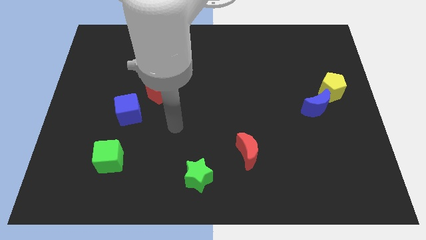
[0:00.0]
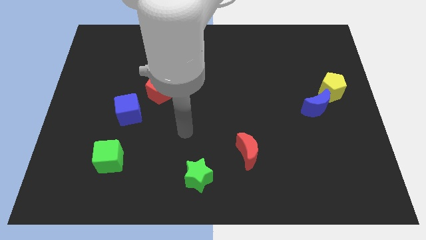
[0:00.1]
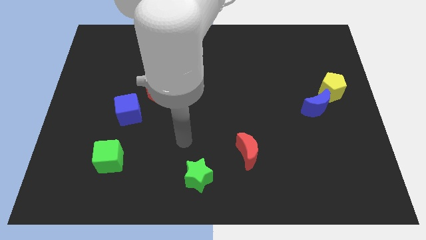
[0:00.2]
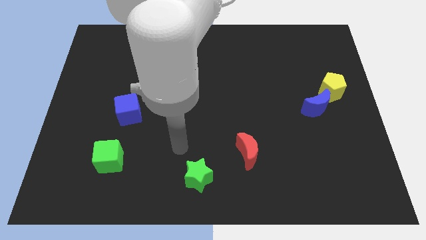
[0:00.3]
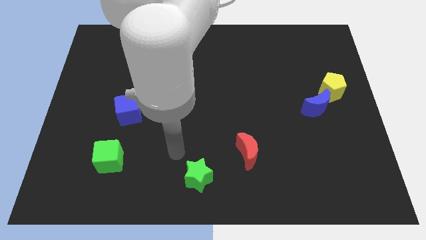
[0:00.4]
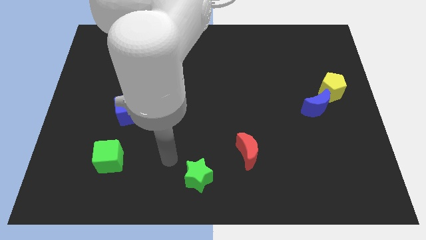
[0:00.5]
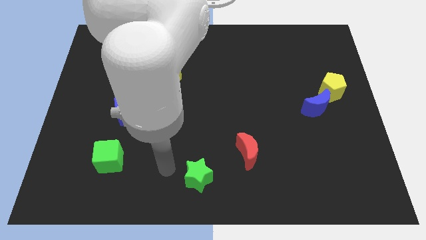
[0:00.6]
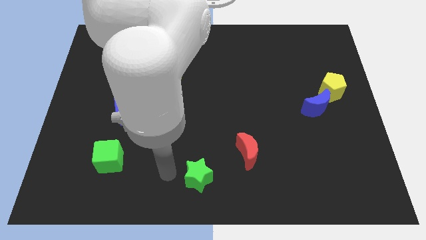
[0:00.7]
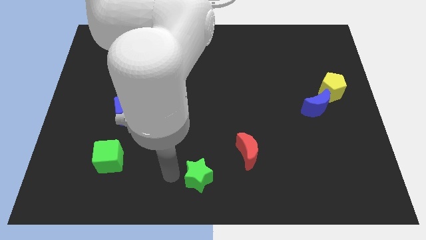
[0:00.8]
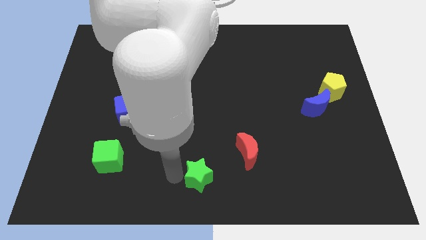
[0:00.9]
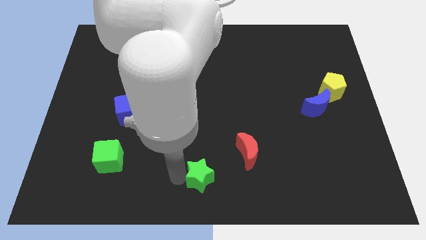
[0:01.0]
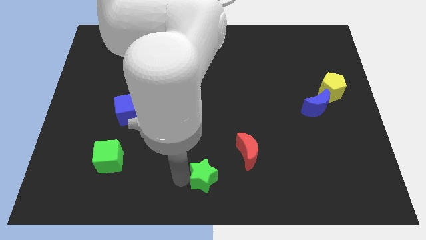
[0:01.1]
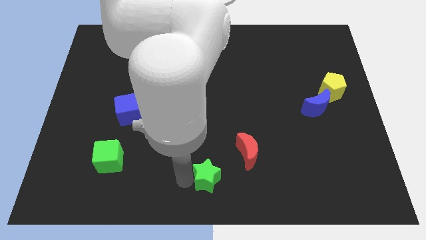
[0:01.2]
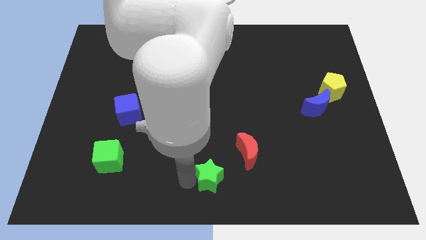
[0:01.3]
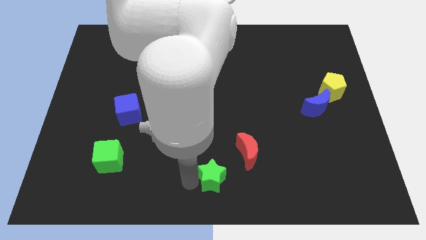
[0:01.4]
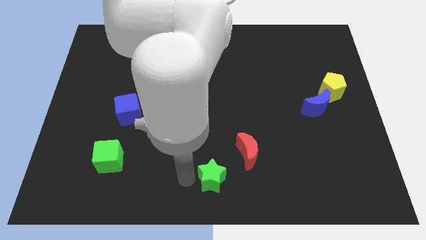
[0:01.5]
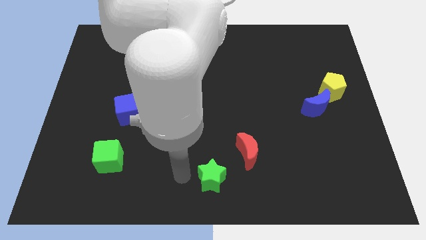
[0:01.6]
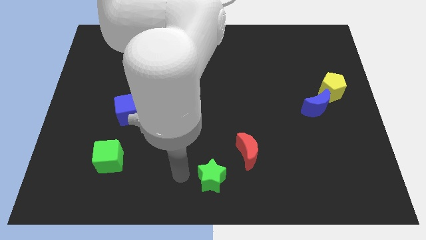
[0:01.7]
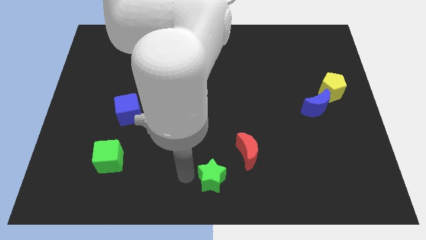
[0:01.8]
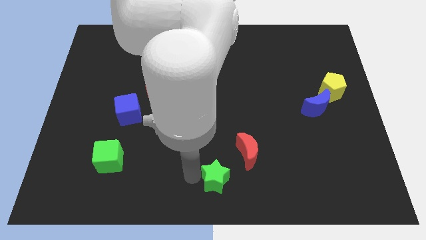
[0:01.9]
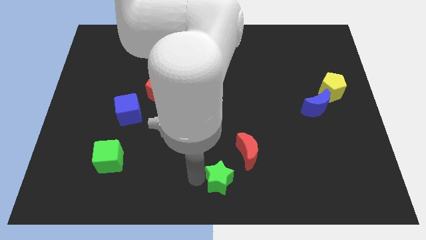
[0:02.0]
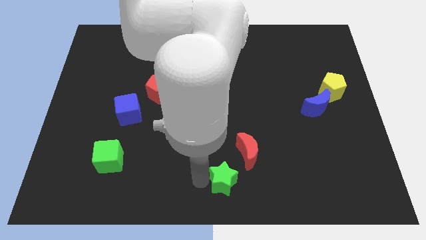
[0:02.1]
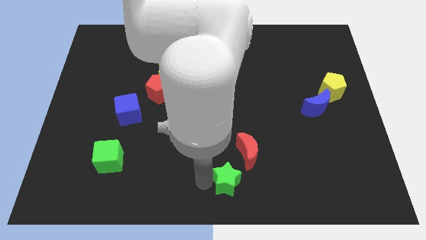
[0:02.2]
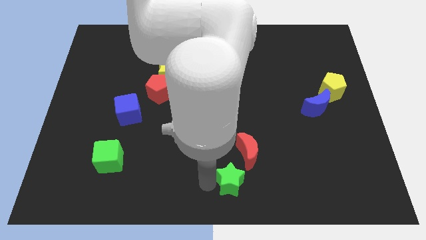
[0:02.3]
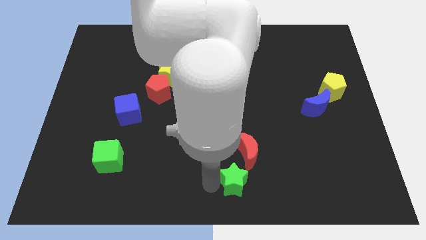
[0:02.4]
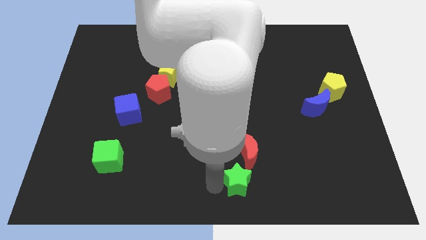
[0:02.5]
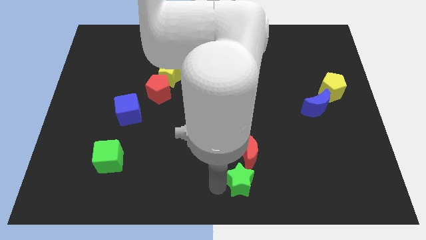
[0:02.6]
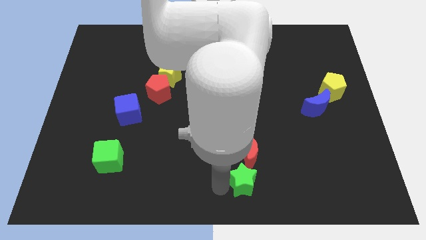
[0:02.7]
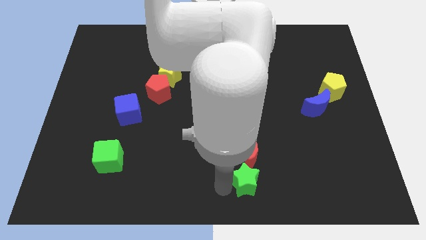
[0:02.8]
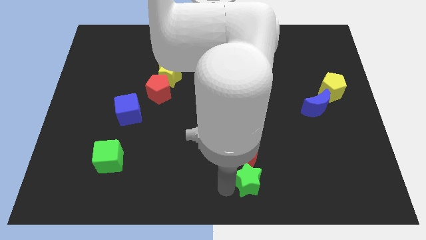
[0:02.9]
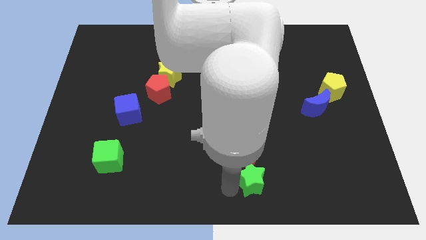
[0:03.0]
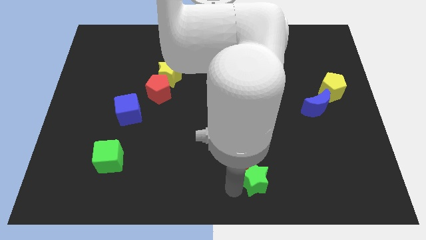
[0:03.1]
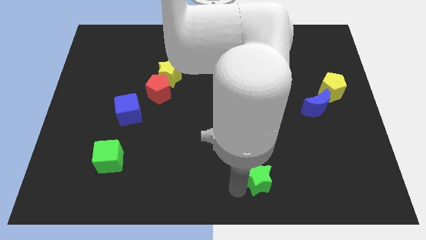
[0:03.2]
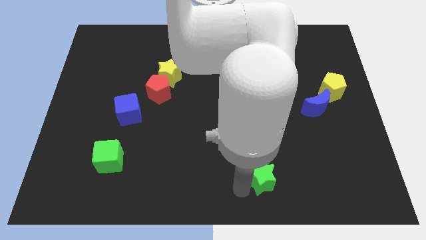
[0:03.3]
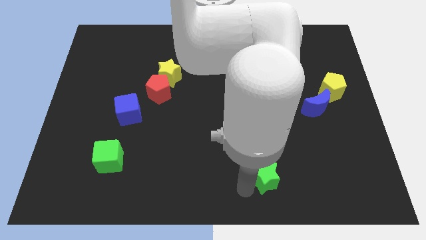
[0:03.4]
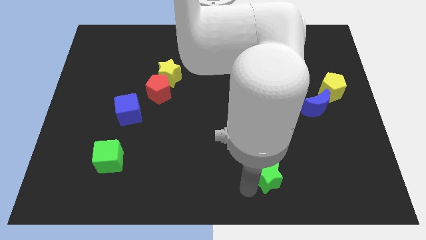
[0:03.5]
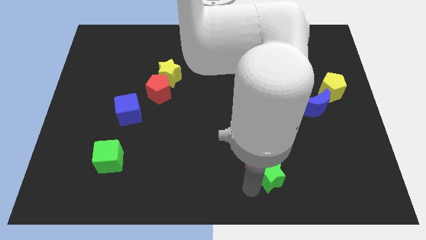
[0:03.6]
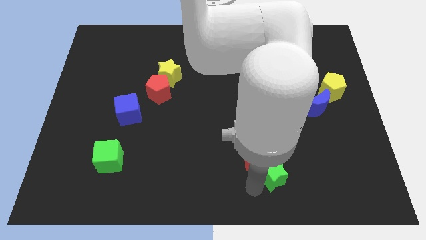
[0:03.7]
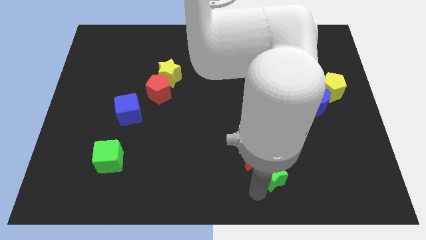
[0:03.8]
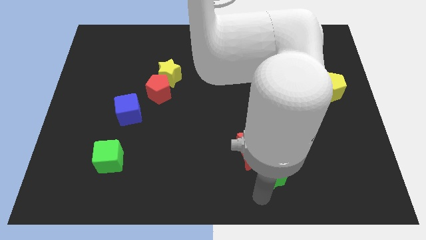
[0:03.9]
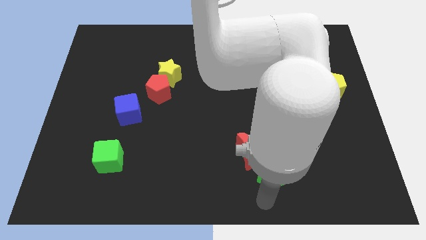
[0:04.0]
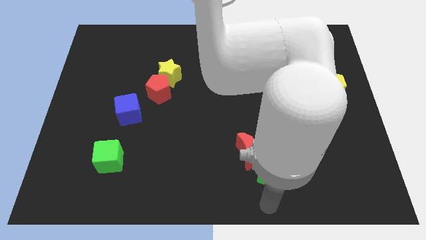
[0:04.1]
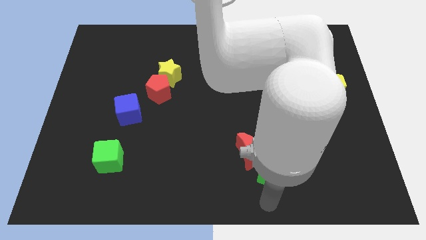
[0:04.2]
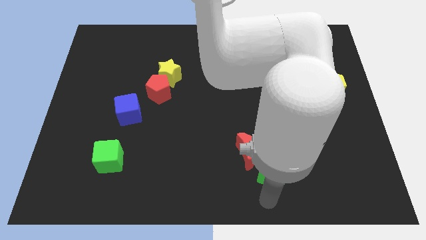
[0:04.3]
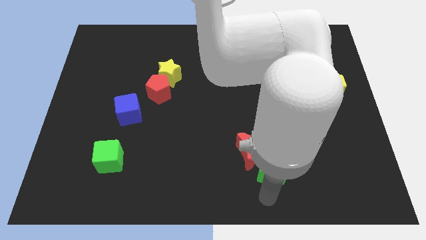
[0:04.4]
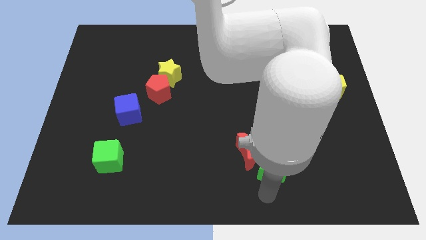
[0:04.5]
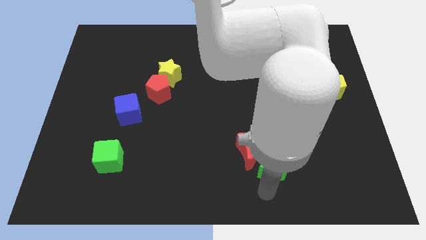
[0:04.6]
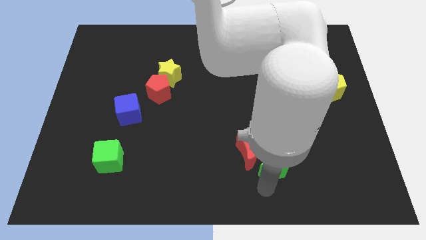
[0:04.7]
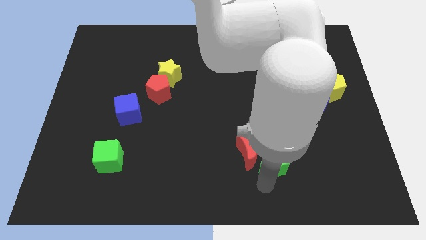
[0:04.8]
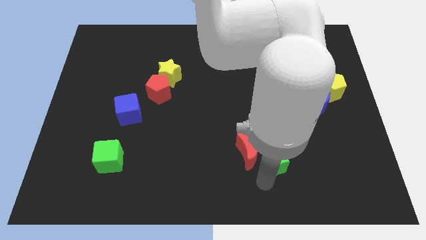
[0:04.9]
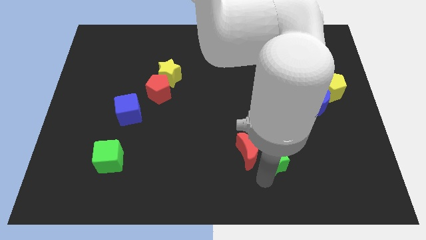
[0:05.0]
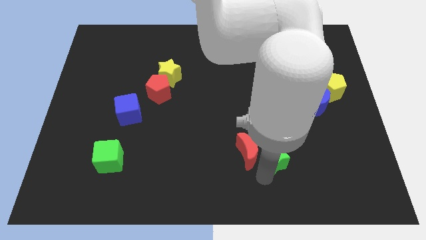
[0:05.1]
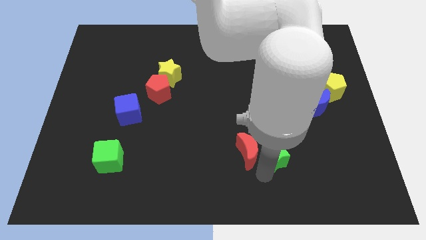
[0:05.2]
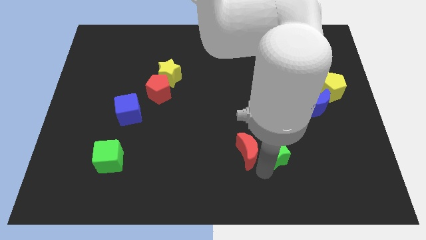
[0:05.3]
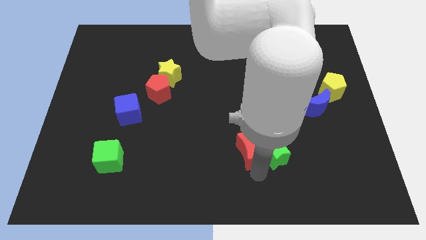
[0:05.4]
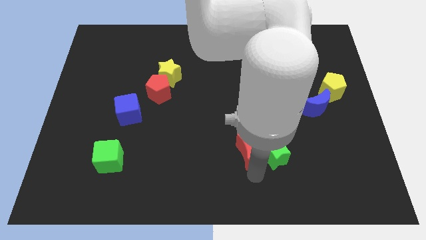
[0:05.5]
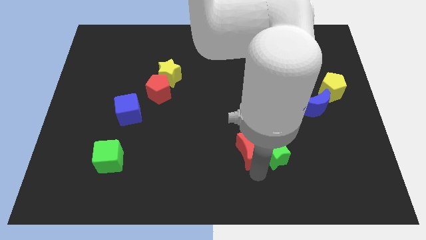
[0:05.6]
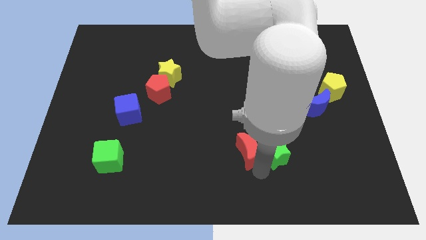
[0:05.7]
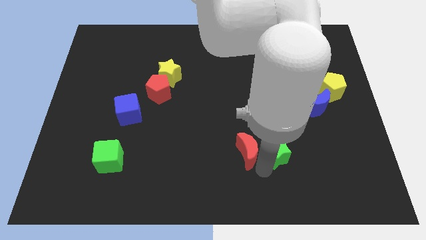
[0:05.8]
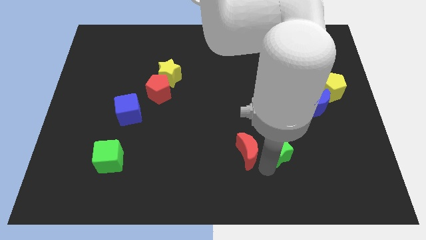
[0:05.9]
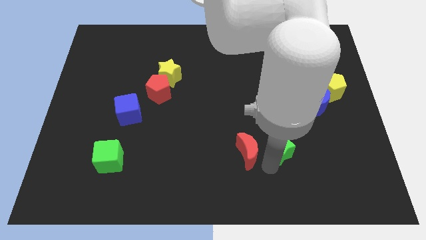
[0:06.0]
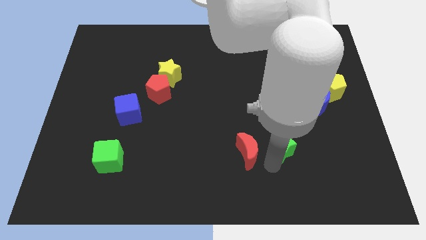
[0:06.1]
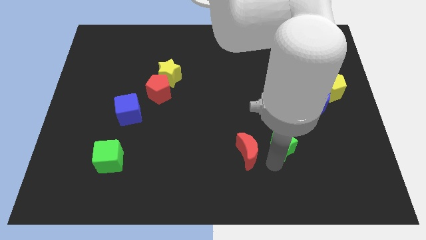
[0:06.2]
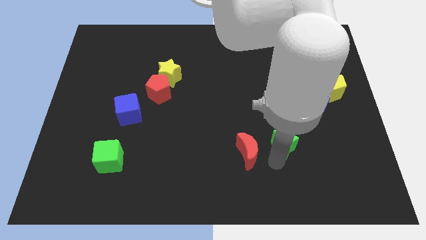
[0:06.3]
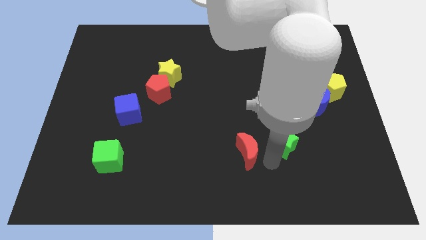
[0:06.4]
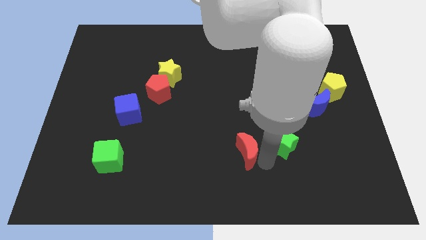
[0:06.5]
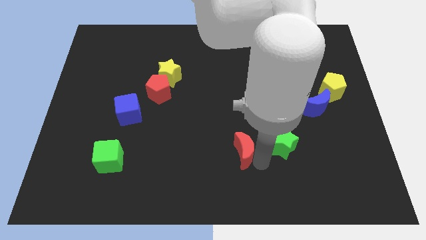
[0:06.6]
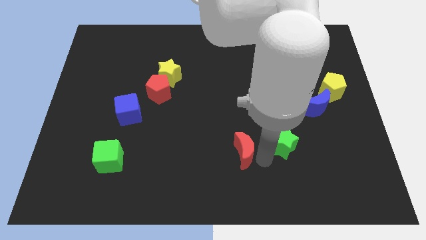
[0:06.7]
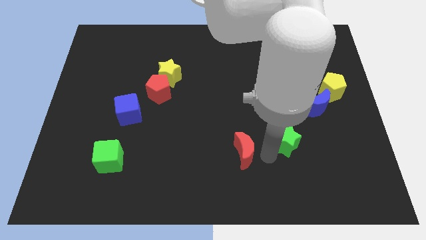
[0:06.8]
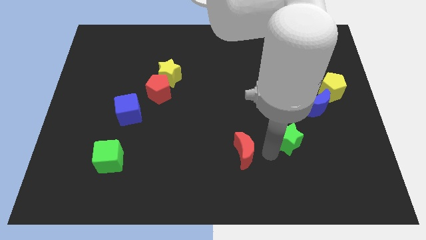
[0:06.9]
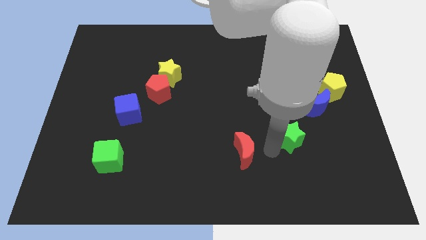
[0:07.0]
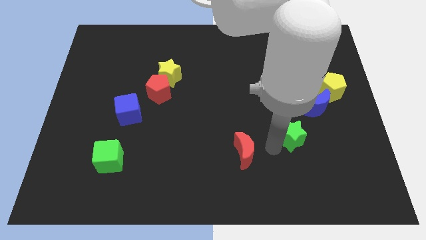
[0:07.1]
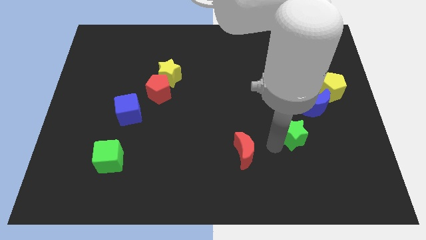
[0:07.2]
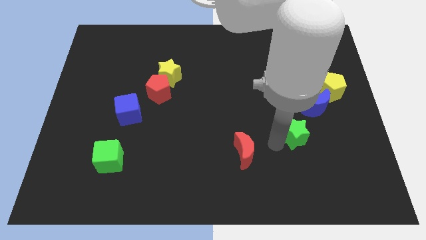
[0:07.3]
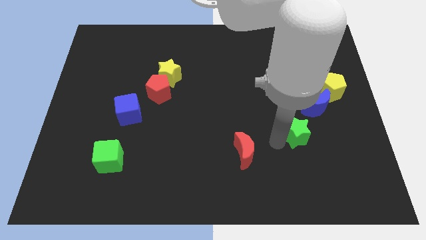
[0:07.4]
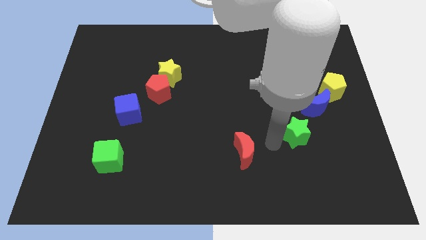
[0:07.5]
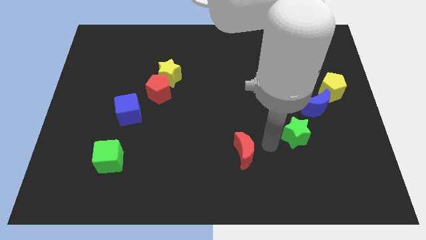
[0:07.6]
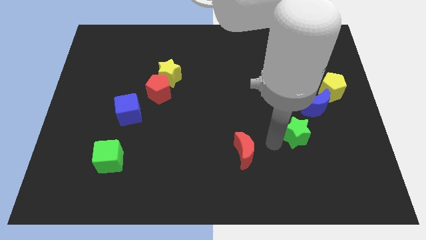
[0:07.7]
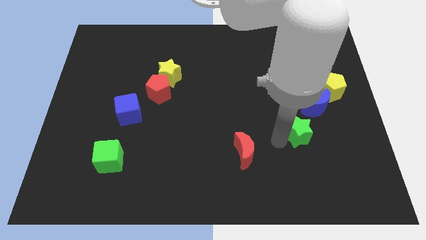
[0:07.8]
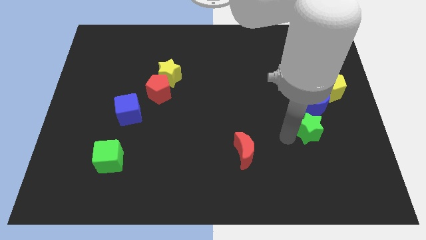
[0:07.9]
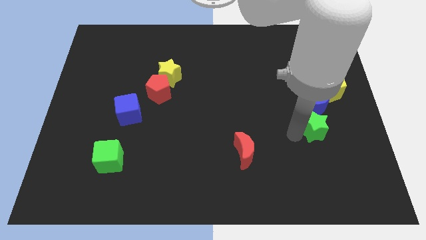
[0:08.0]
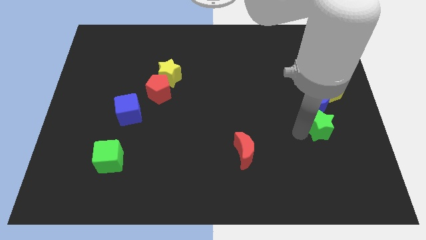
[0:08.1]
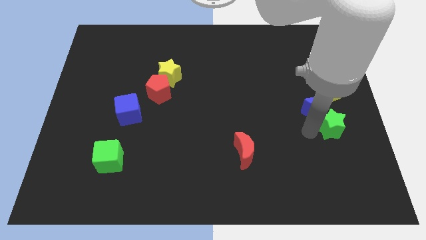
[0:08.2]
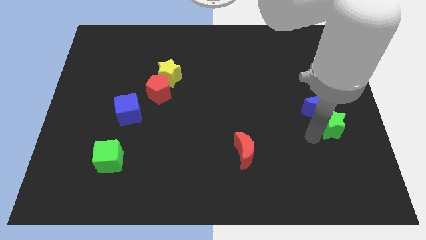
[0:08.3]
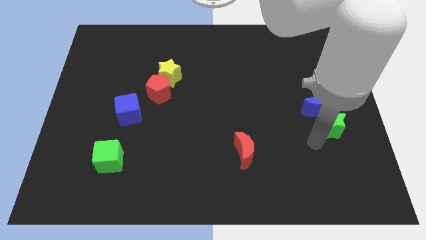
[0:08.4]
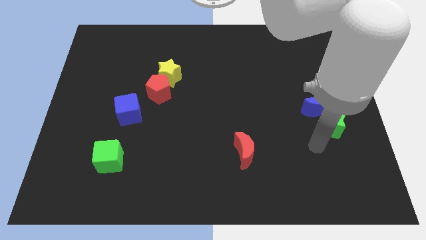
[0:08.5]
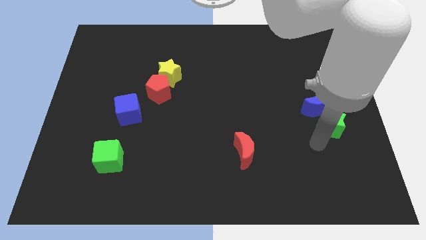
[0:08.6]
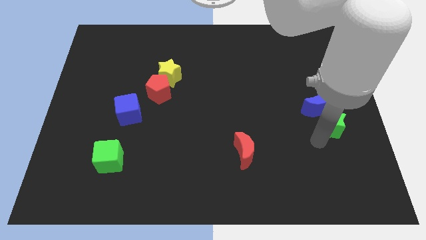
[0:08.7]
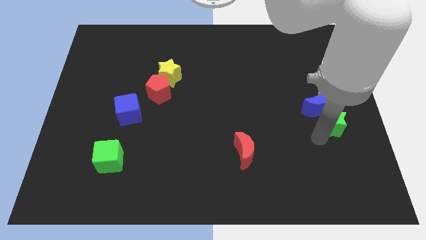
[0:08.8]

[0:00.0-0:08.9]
slide the green star to the right side of the board
